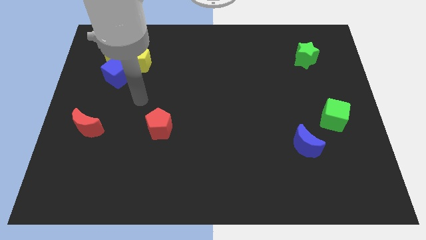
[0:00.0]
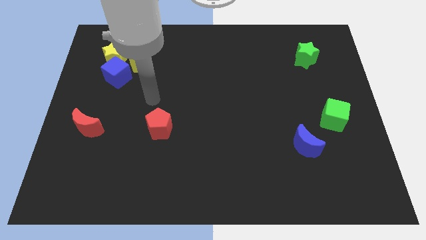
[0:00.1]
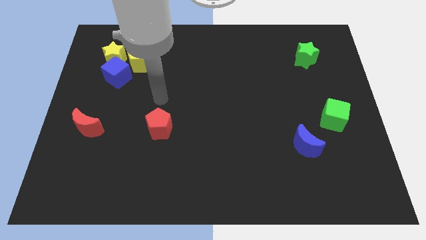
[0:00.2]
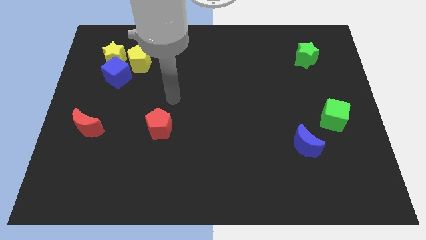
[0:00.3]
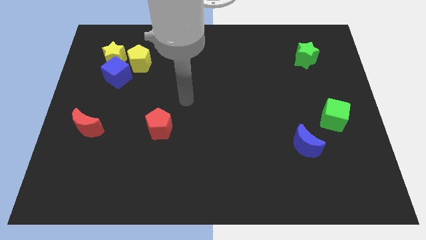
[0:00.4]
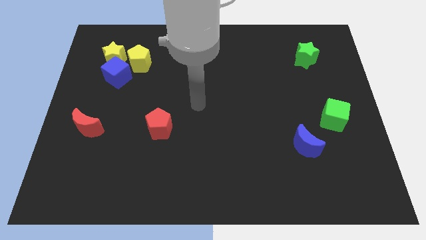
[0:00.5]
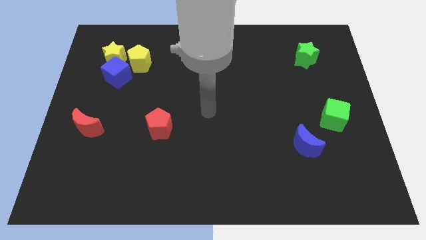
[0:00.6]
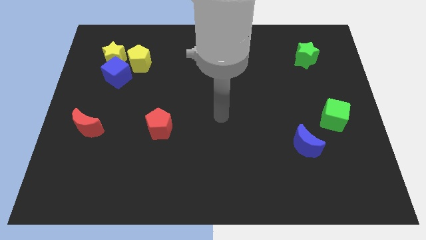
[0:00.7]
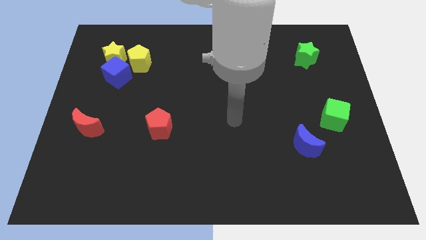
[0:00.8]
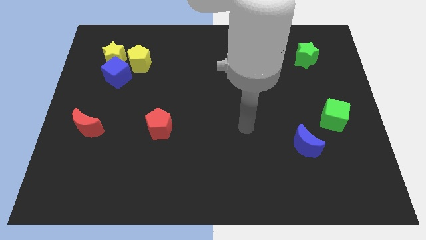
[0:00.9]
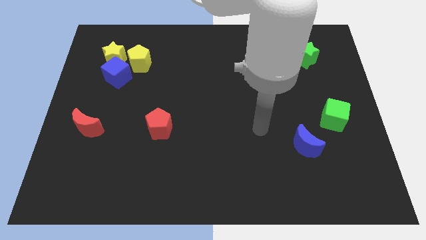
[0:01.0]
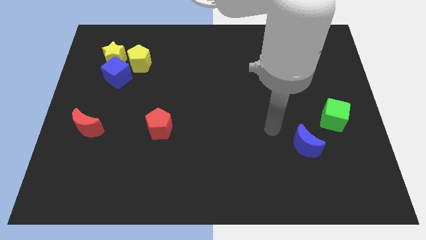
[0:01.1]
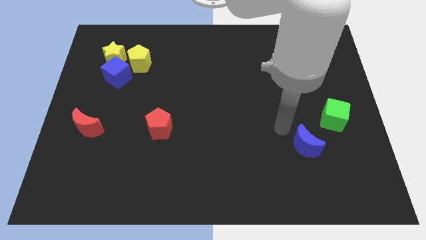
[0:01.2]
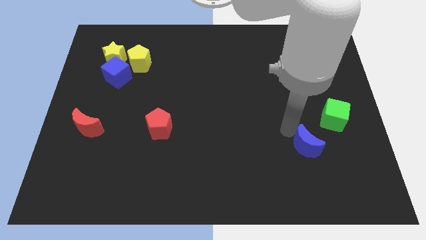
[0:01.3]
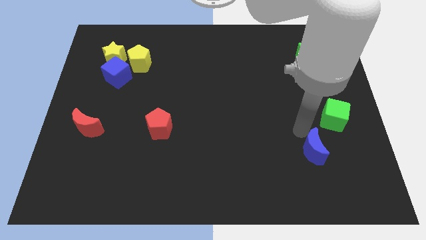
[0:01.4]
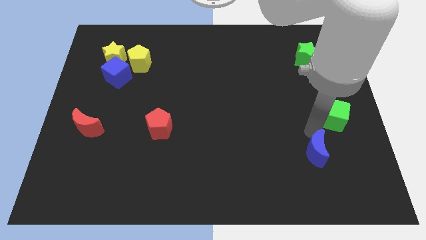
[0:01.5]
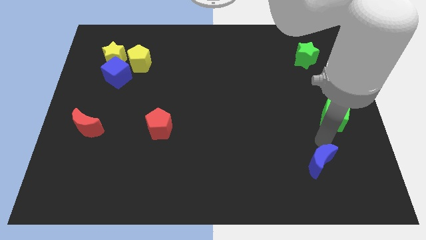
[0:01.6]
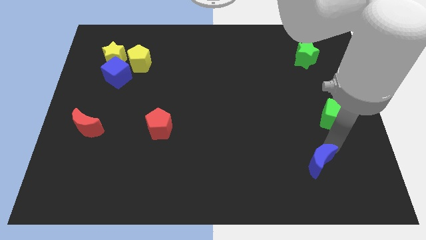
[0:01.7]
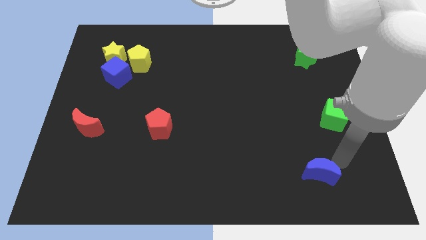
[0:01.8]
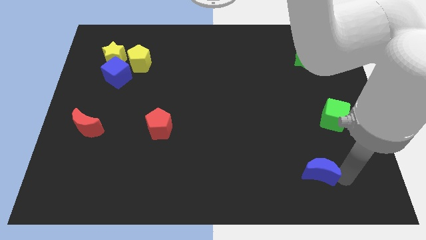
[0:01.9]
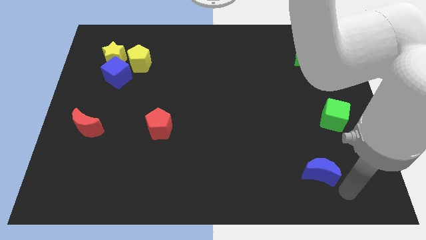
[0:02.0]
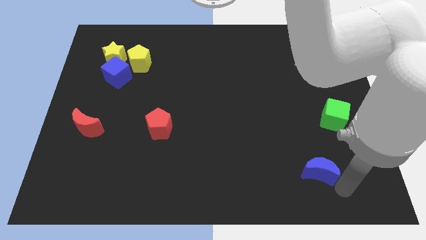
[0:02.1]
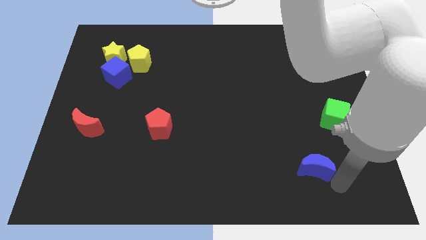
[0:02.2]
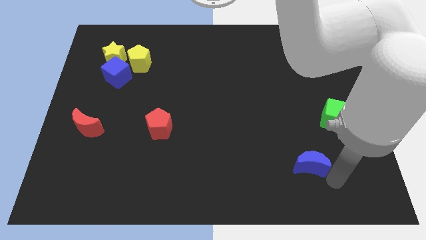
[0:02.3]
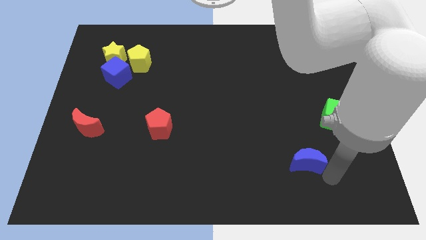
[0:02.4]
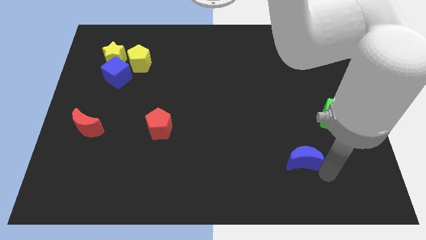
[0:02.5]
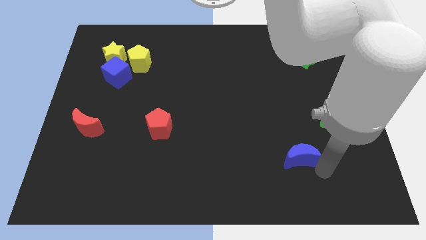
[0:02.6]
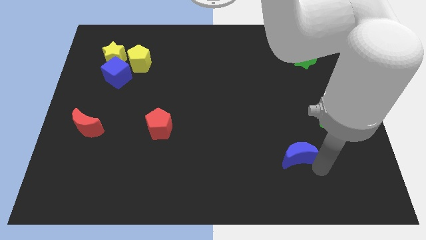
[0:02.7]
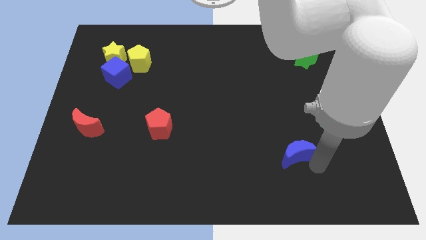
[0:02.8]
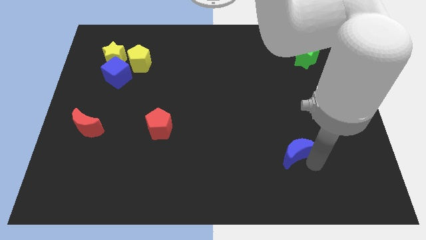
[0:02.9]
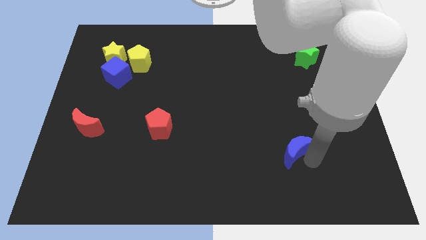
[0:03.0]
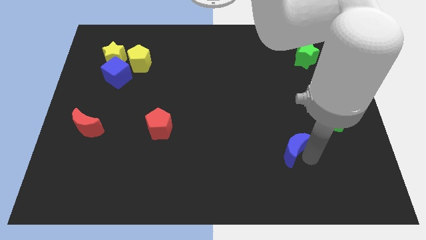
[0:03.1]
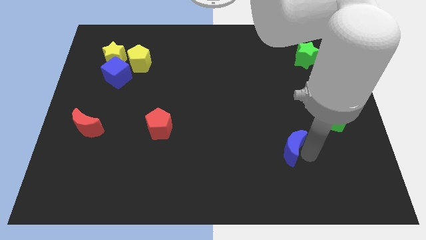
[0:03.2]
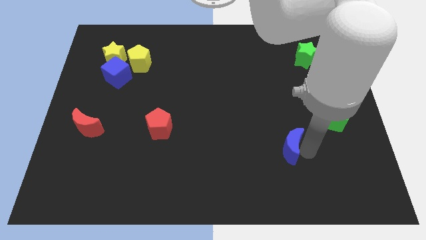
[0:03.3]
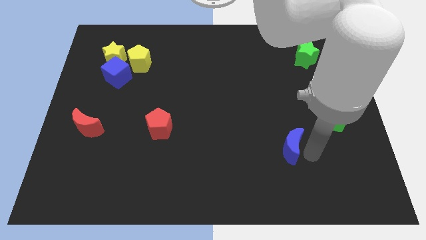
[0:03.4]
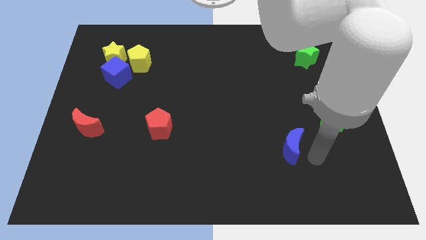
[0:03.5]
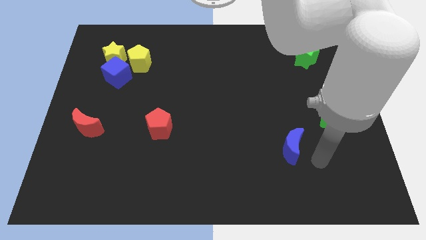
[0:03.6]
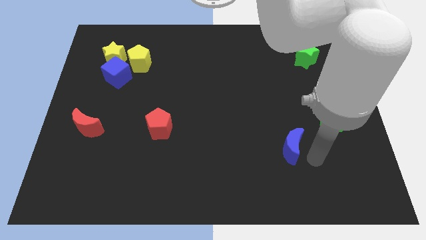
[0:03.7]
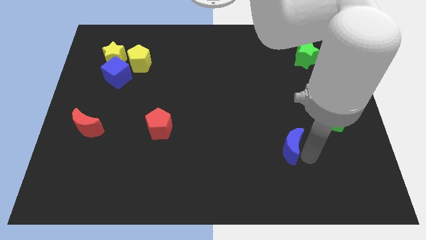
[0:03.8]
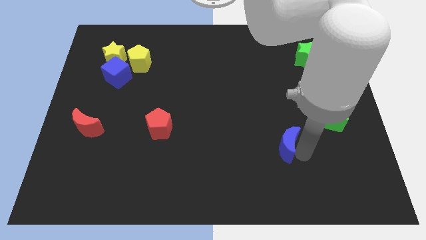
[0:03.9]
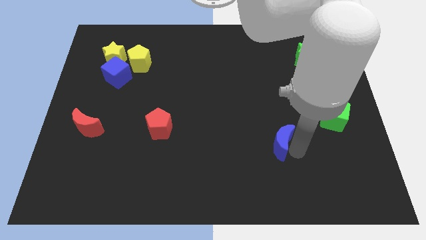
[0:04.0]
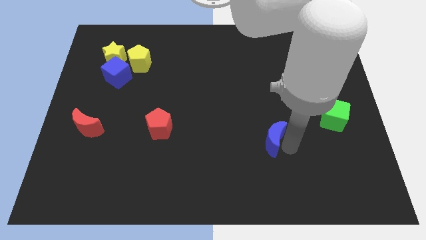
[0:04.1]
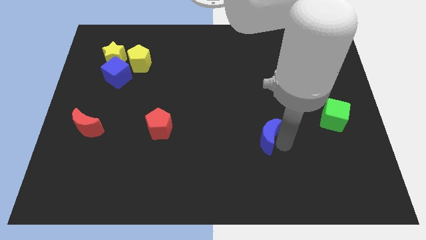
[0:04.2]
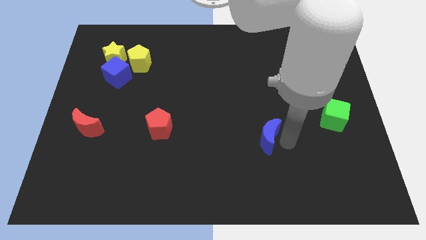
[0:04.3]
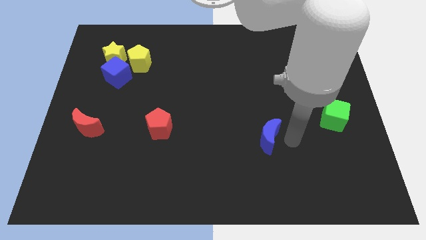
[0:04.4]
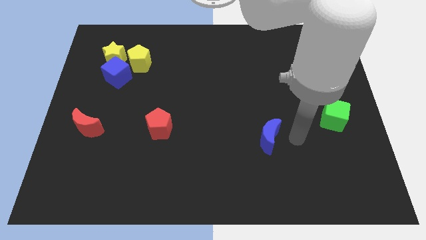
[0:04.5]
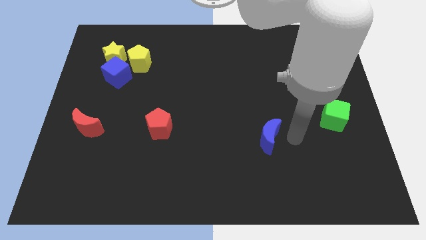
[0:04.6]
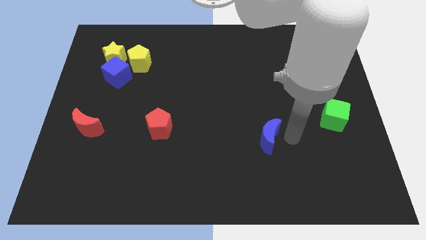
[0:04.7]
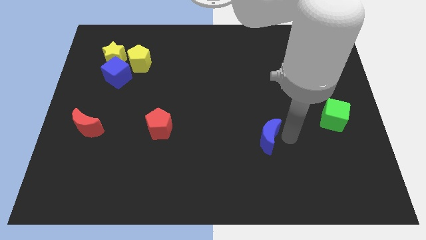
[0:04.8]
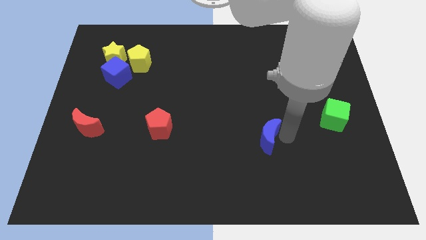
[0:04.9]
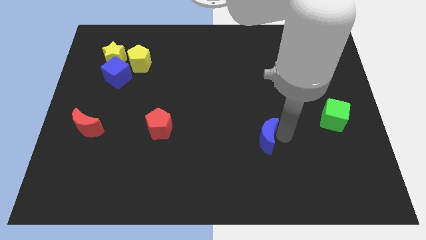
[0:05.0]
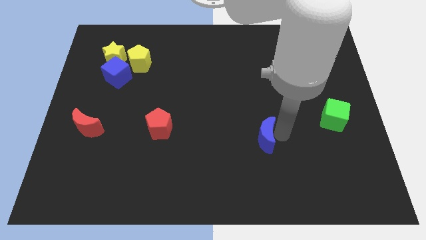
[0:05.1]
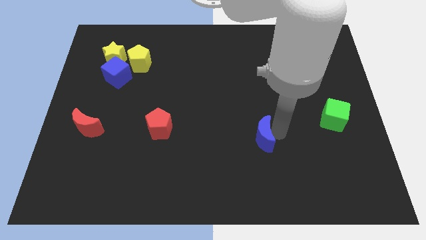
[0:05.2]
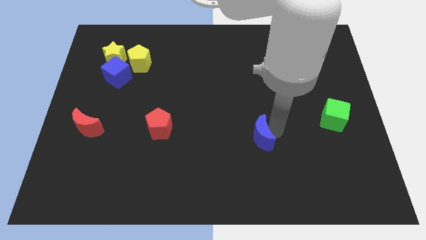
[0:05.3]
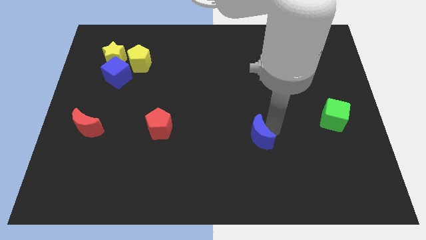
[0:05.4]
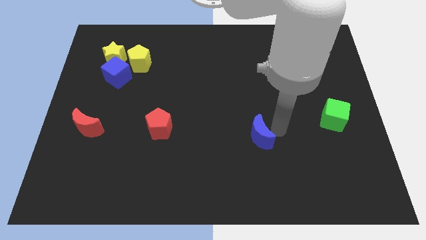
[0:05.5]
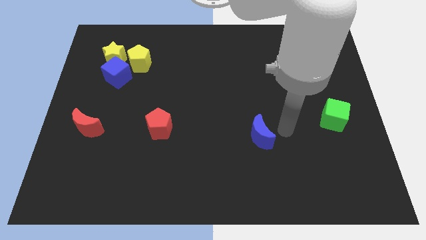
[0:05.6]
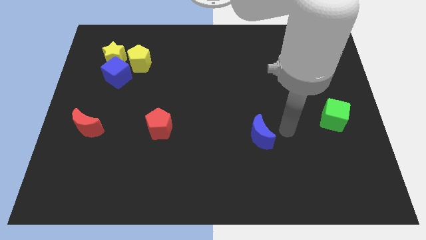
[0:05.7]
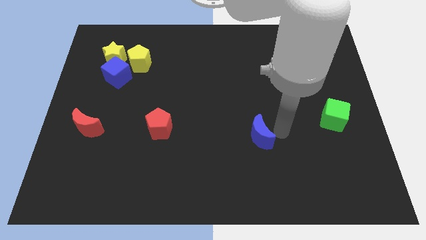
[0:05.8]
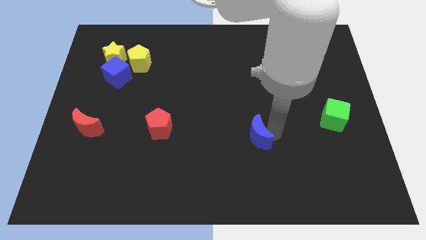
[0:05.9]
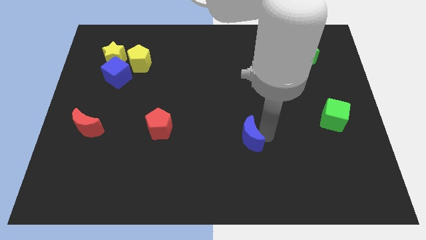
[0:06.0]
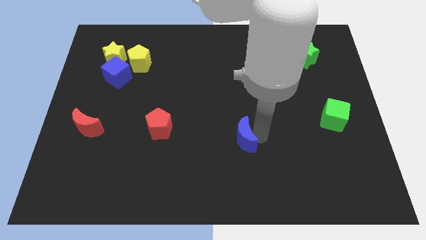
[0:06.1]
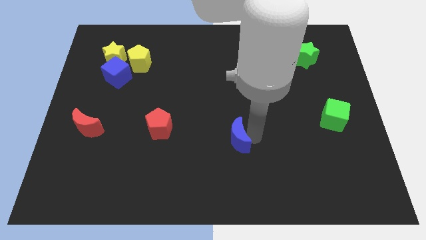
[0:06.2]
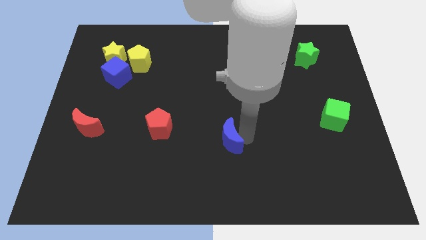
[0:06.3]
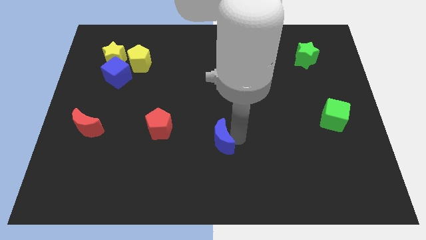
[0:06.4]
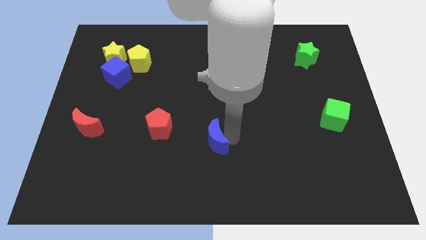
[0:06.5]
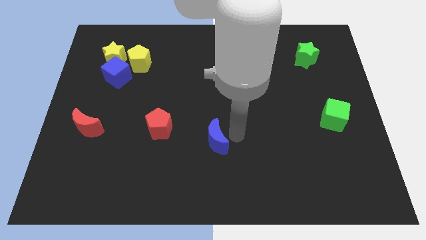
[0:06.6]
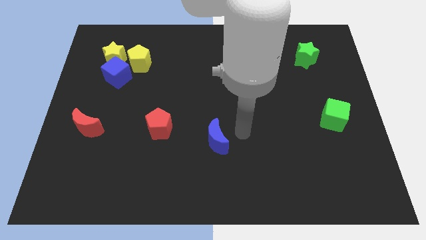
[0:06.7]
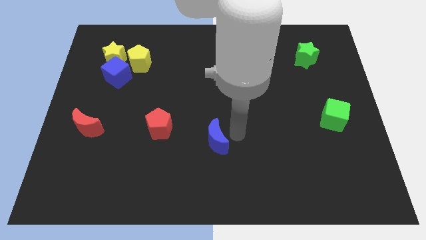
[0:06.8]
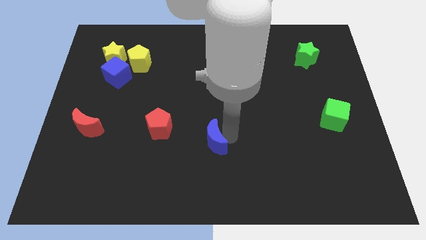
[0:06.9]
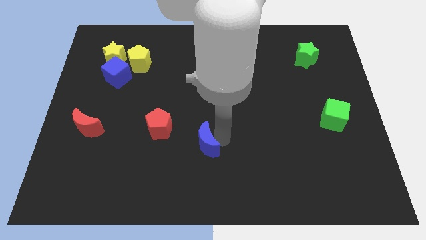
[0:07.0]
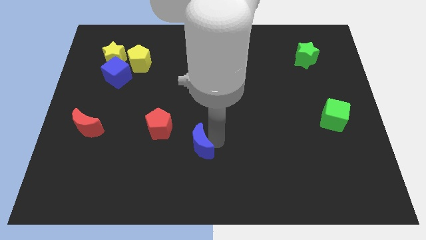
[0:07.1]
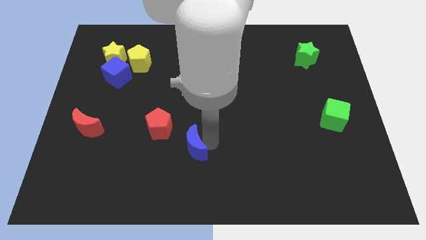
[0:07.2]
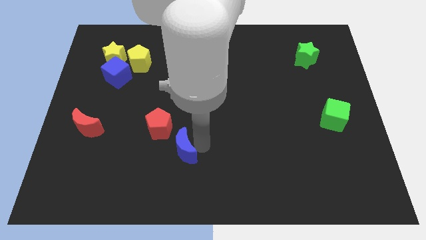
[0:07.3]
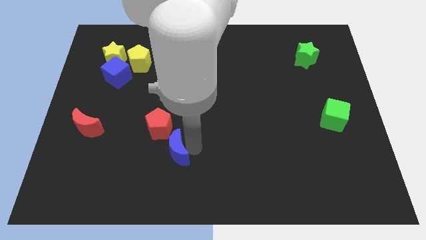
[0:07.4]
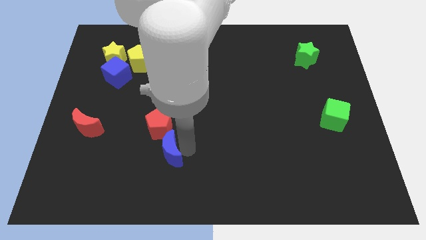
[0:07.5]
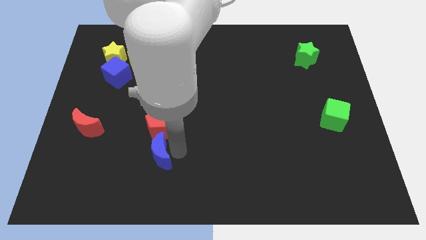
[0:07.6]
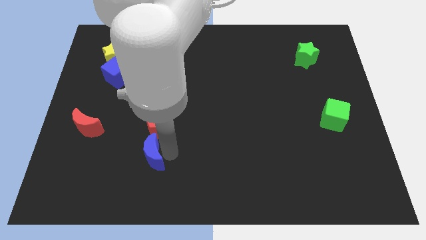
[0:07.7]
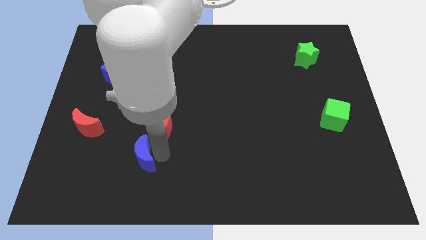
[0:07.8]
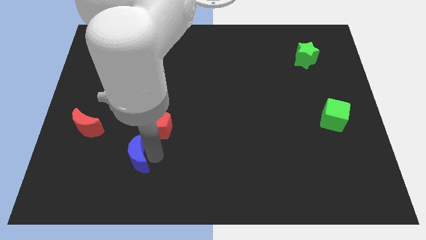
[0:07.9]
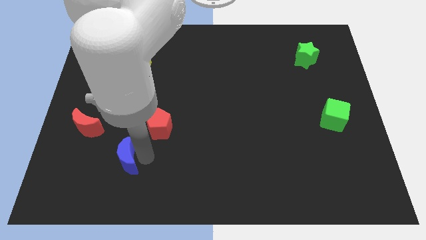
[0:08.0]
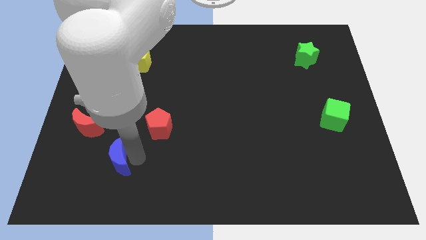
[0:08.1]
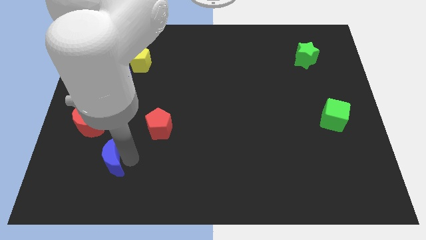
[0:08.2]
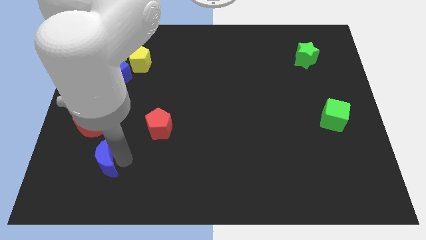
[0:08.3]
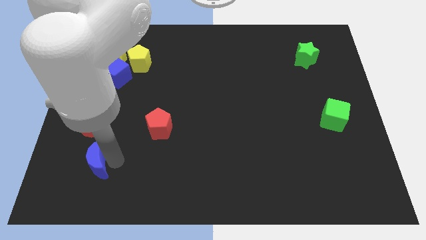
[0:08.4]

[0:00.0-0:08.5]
move the blue moon below the red moon
